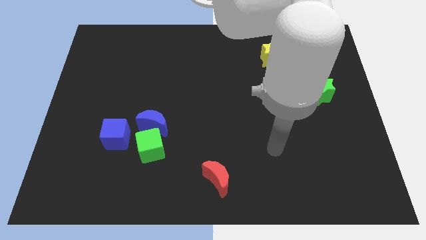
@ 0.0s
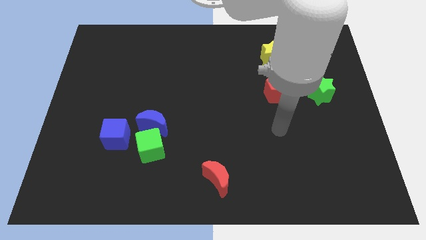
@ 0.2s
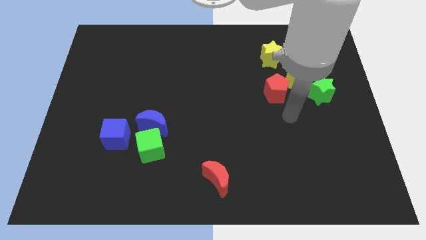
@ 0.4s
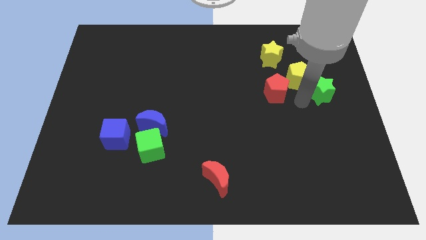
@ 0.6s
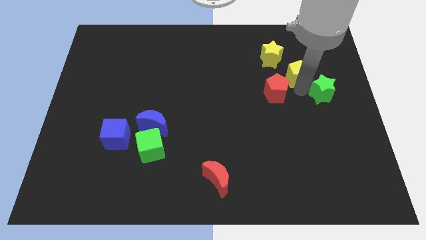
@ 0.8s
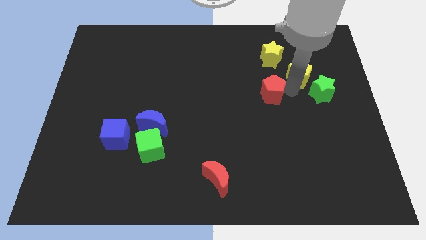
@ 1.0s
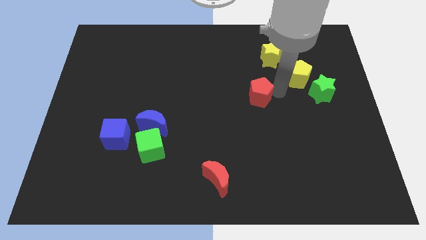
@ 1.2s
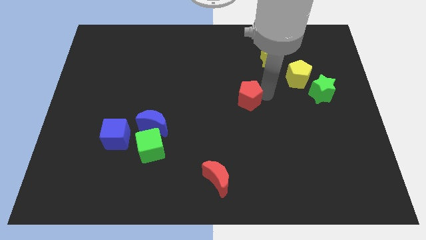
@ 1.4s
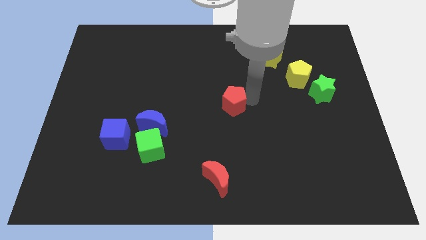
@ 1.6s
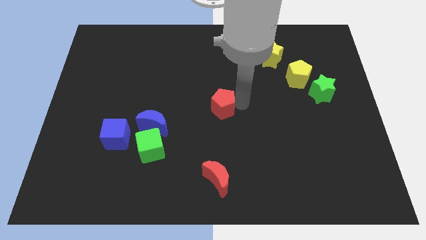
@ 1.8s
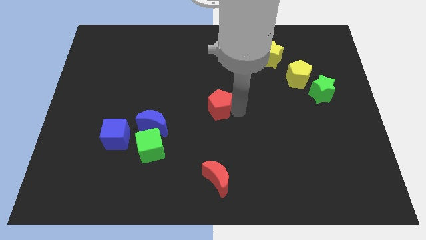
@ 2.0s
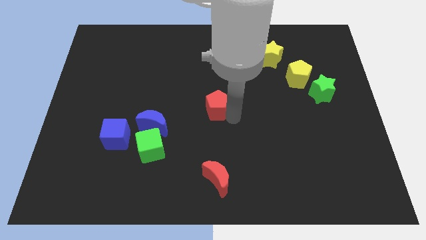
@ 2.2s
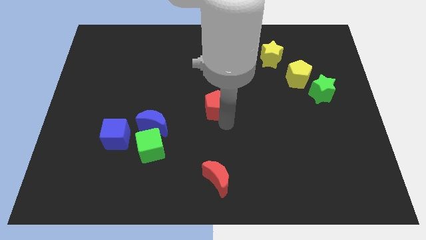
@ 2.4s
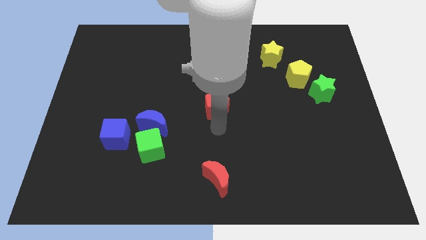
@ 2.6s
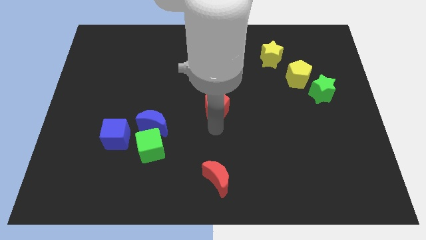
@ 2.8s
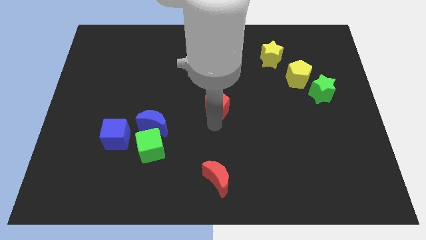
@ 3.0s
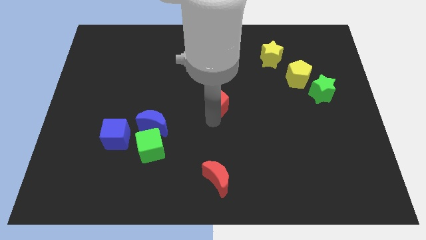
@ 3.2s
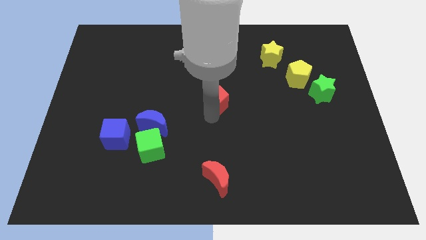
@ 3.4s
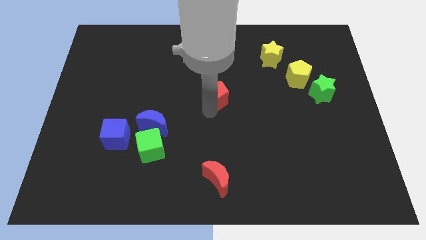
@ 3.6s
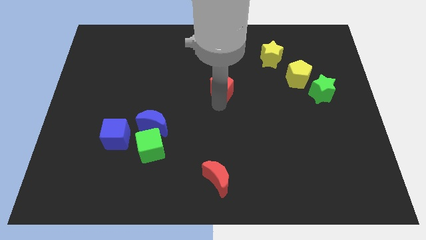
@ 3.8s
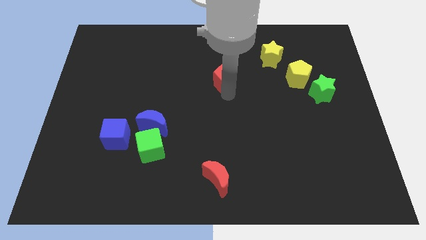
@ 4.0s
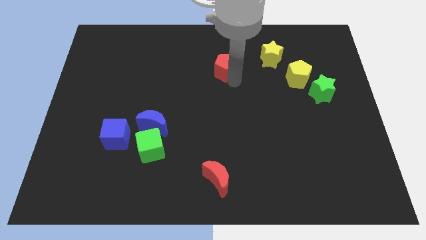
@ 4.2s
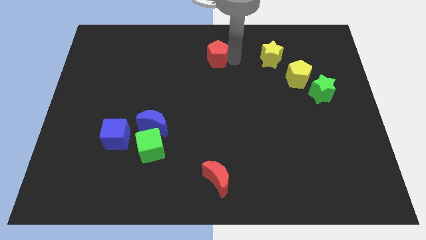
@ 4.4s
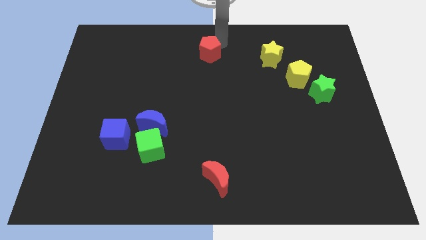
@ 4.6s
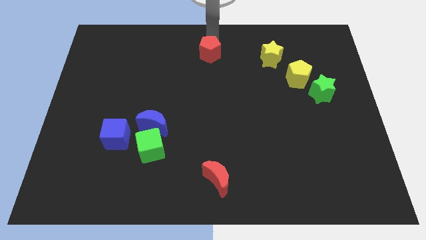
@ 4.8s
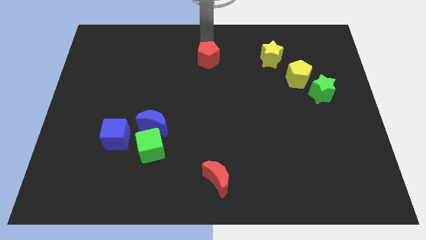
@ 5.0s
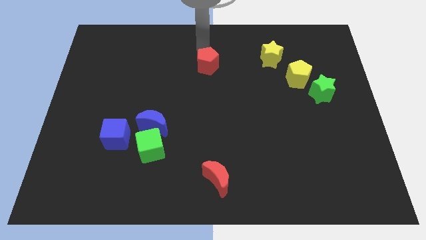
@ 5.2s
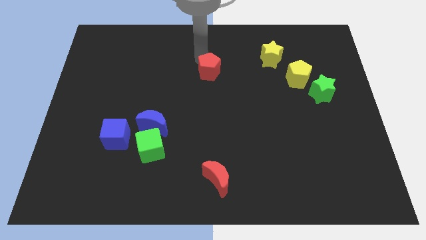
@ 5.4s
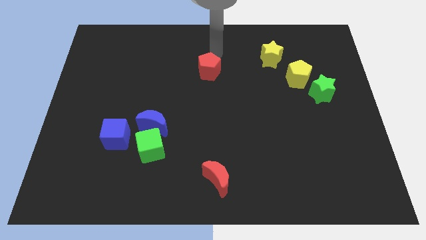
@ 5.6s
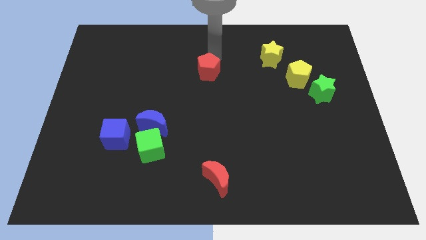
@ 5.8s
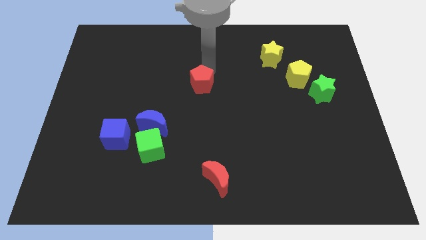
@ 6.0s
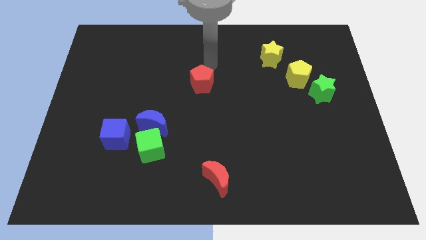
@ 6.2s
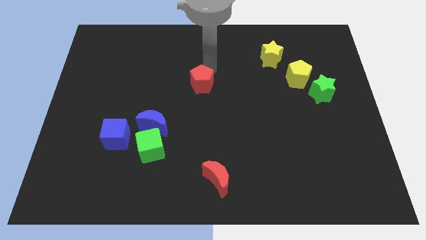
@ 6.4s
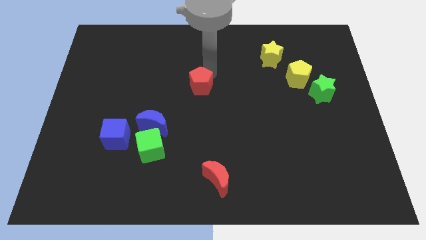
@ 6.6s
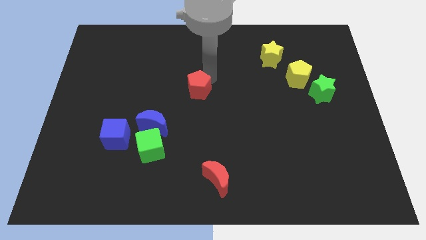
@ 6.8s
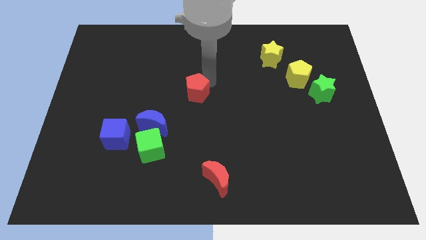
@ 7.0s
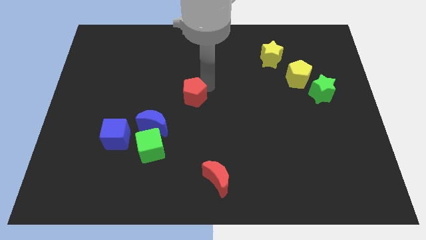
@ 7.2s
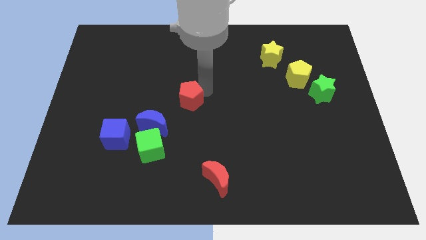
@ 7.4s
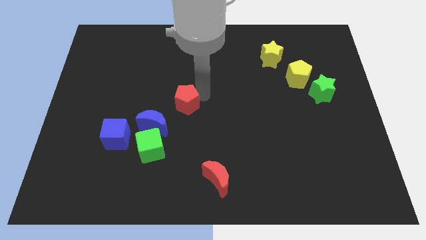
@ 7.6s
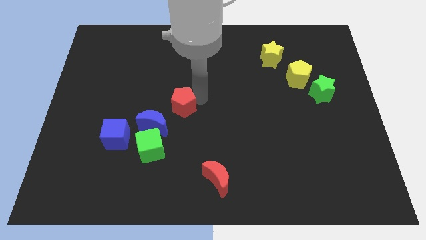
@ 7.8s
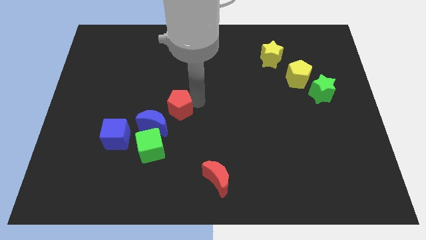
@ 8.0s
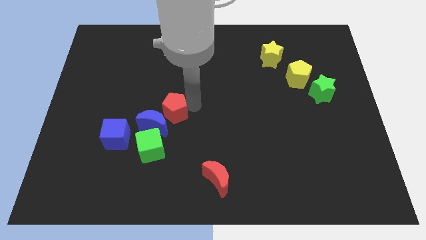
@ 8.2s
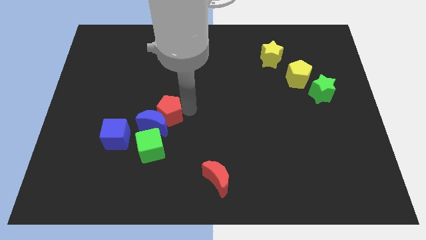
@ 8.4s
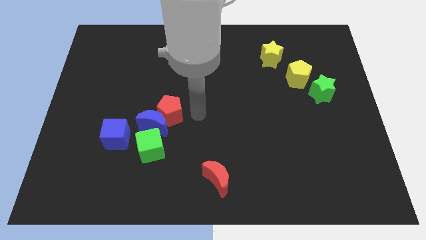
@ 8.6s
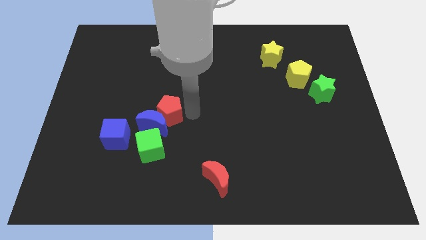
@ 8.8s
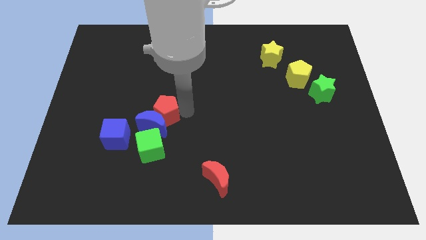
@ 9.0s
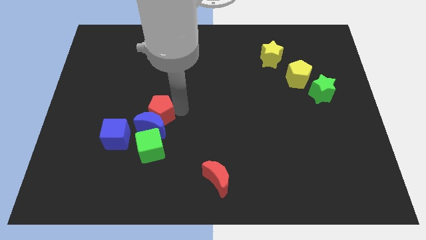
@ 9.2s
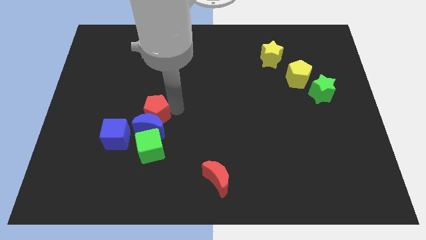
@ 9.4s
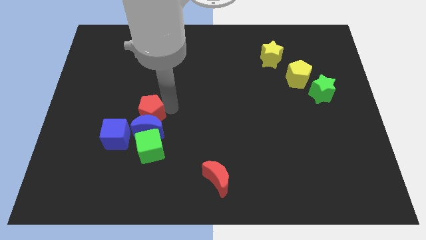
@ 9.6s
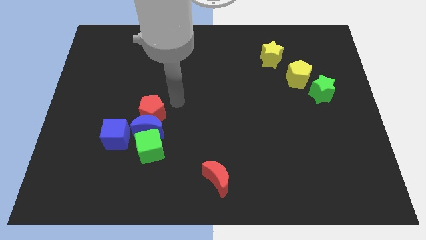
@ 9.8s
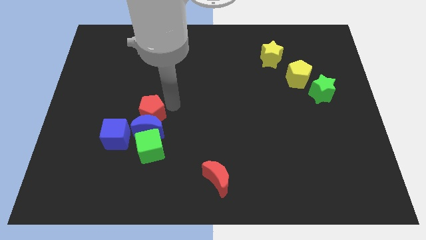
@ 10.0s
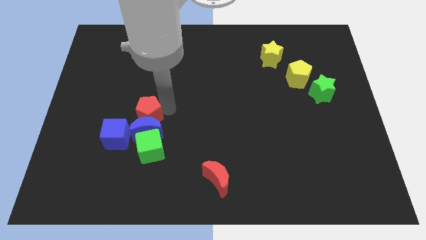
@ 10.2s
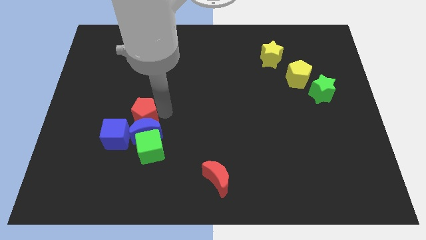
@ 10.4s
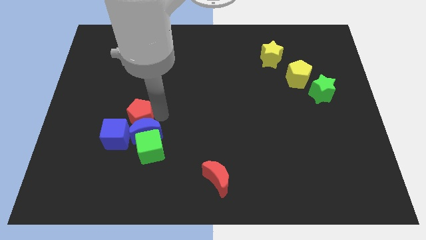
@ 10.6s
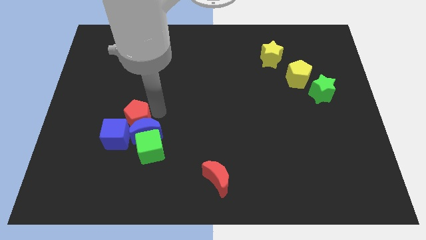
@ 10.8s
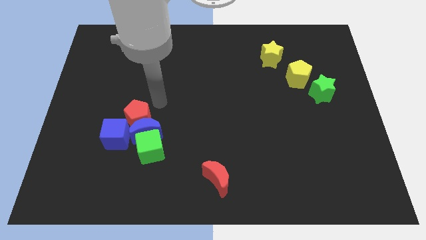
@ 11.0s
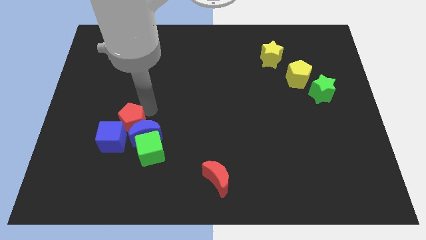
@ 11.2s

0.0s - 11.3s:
push the red pentagon next to the blue cube

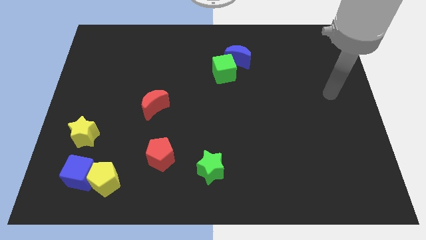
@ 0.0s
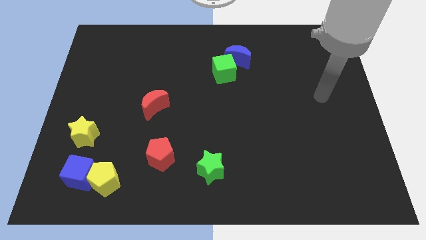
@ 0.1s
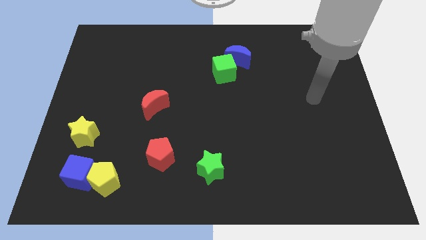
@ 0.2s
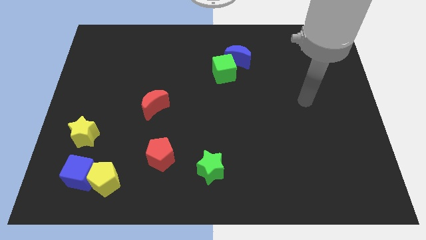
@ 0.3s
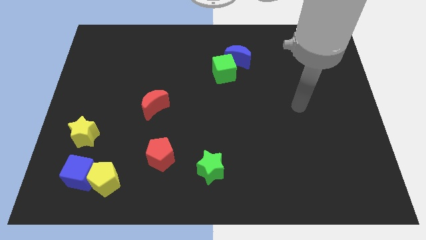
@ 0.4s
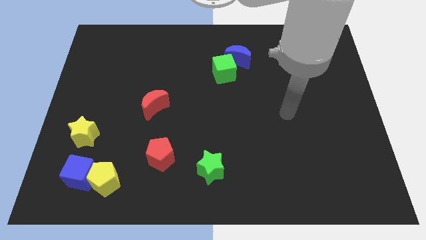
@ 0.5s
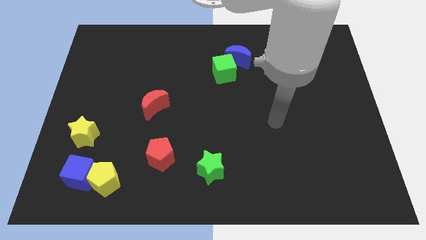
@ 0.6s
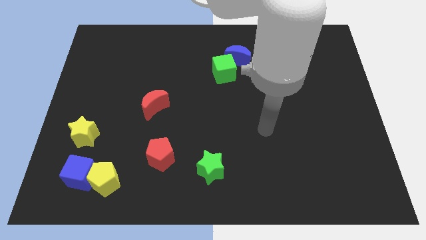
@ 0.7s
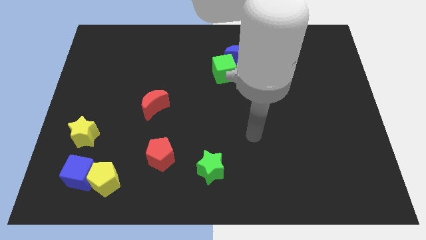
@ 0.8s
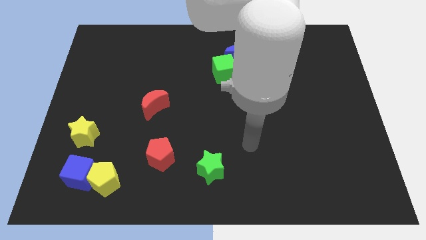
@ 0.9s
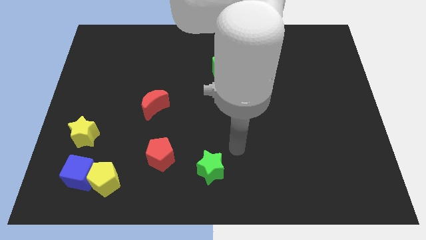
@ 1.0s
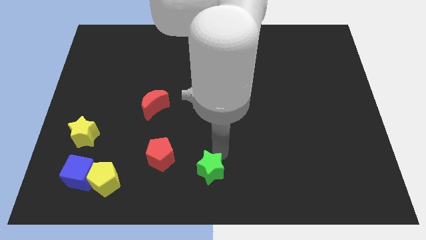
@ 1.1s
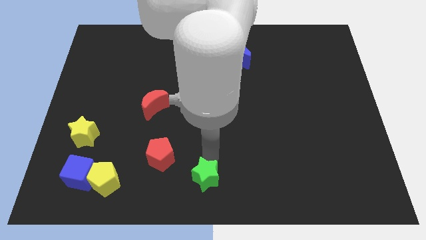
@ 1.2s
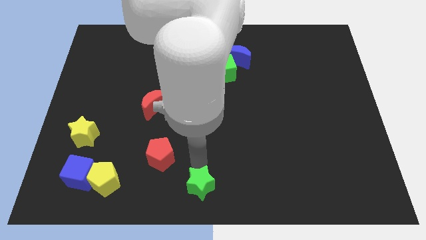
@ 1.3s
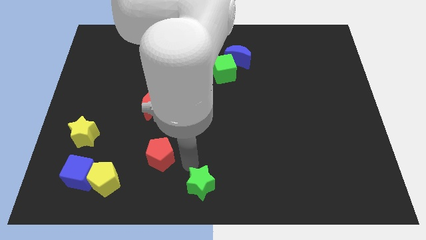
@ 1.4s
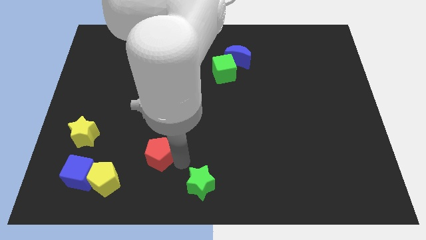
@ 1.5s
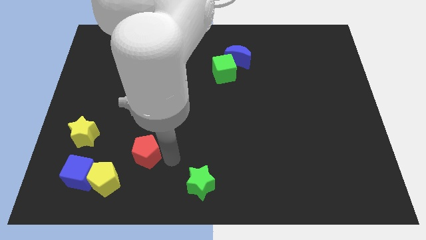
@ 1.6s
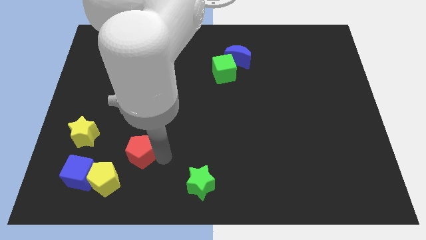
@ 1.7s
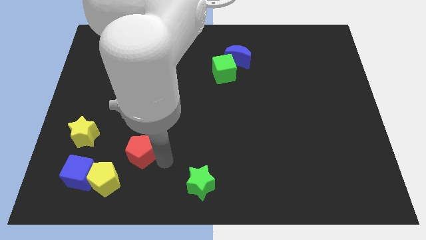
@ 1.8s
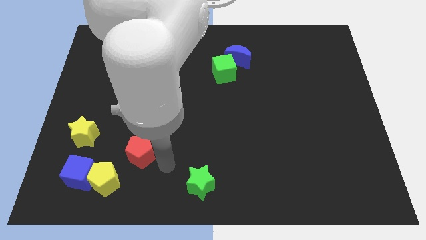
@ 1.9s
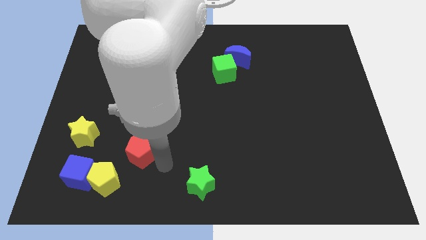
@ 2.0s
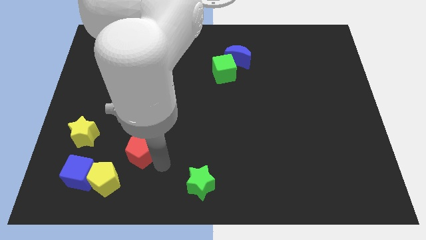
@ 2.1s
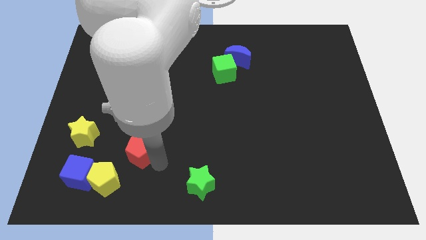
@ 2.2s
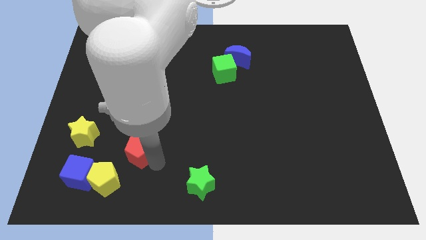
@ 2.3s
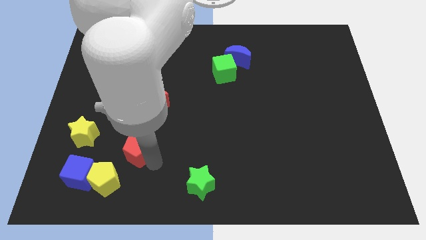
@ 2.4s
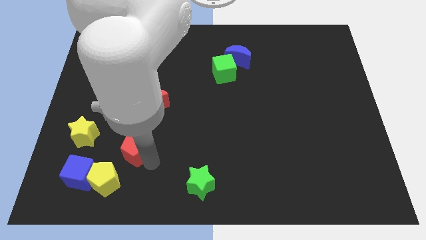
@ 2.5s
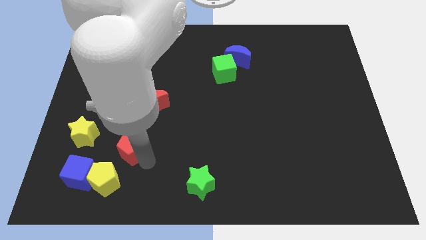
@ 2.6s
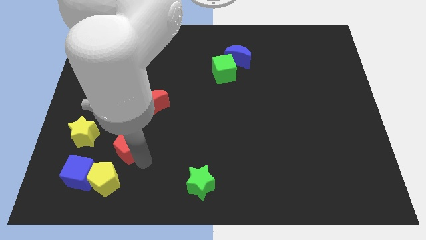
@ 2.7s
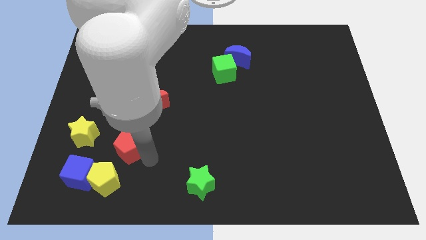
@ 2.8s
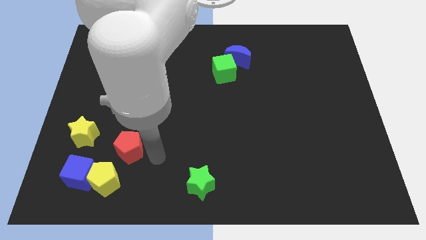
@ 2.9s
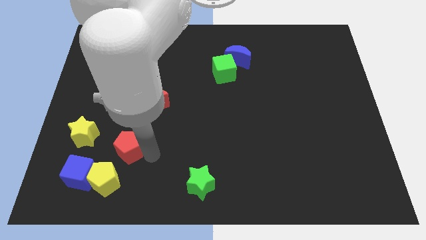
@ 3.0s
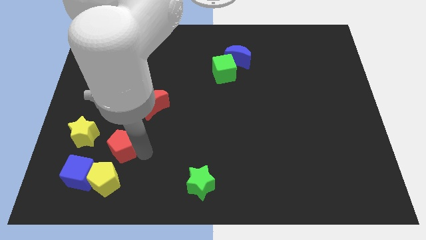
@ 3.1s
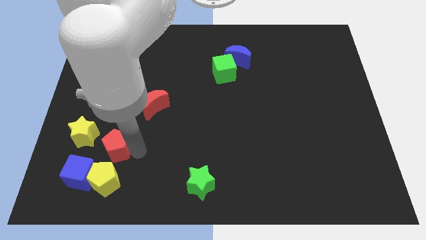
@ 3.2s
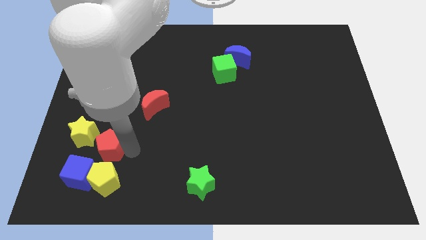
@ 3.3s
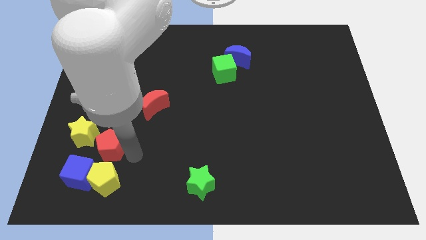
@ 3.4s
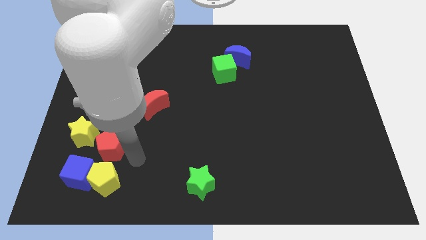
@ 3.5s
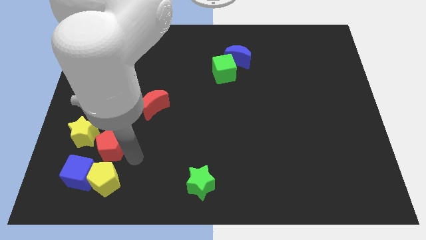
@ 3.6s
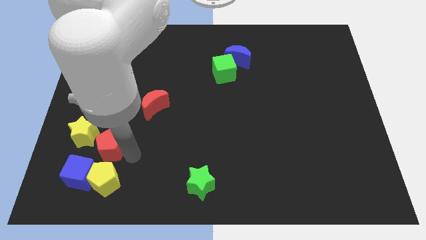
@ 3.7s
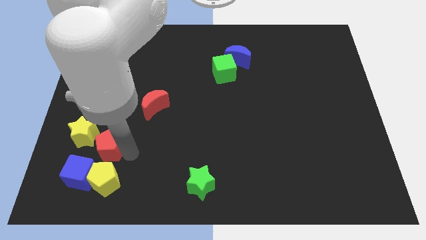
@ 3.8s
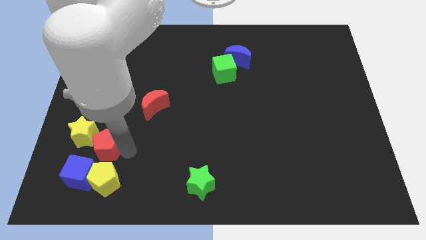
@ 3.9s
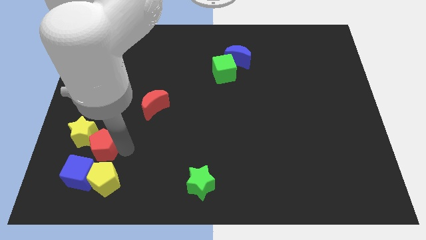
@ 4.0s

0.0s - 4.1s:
push the red pentagon to the yellow star
